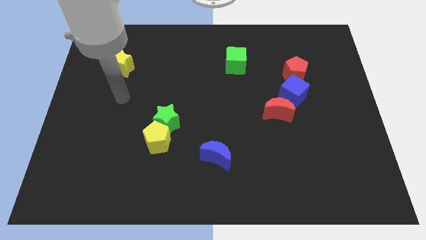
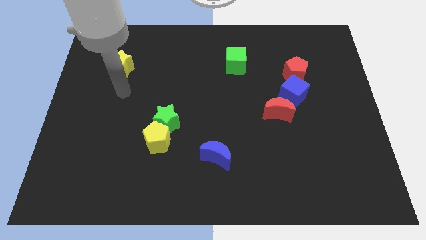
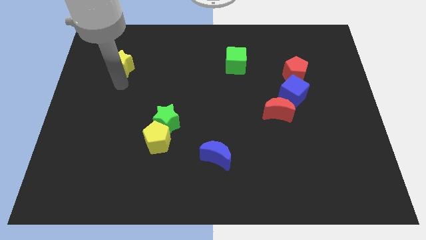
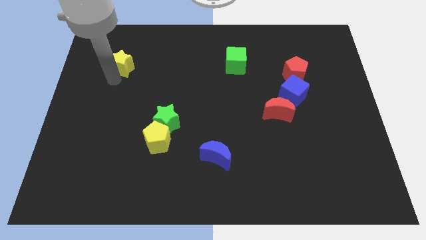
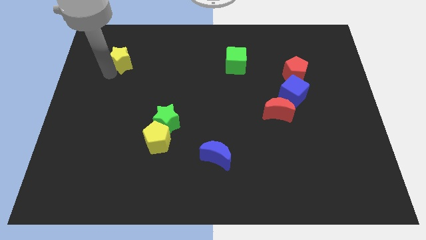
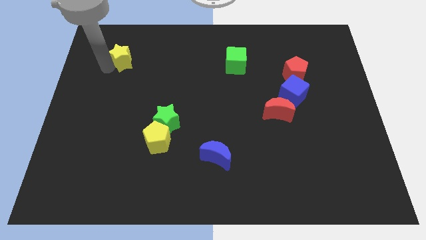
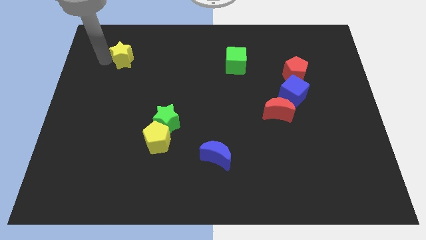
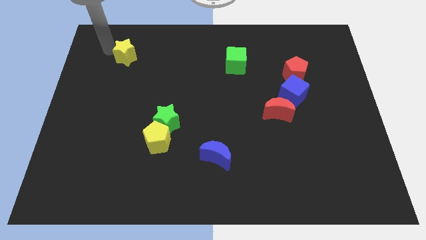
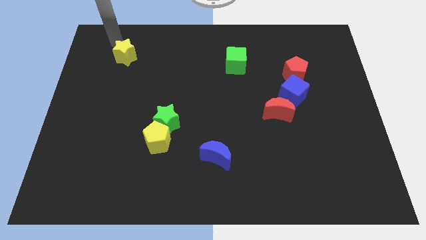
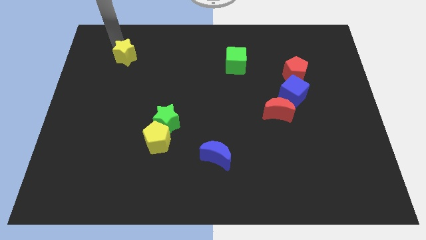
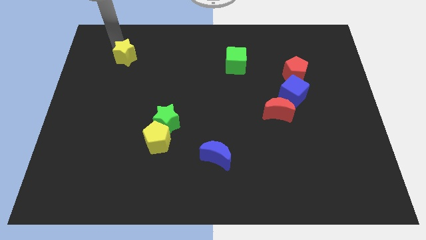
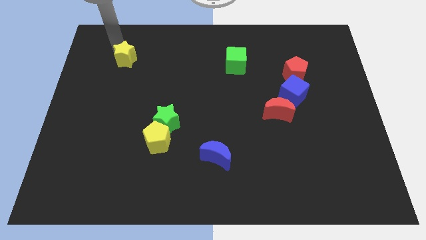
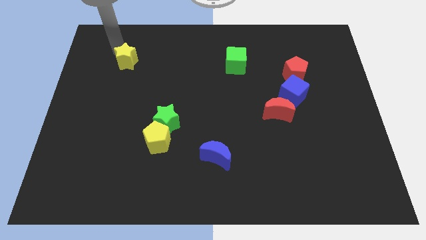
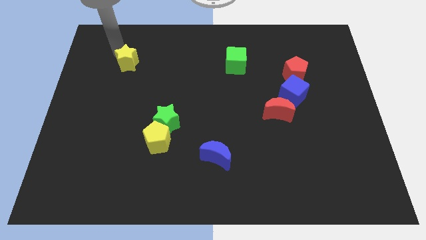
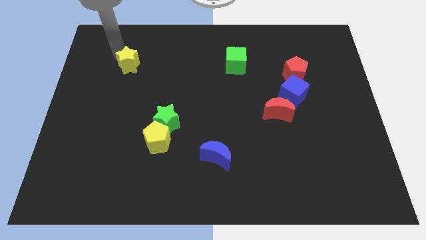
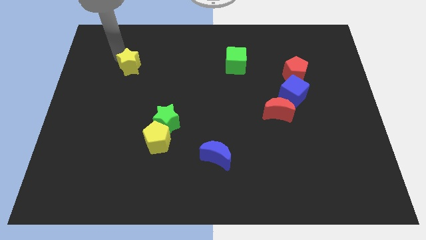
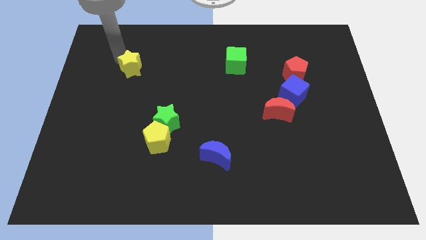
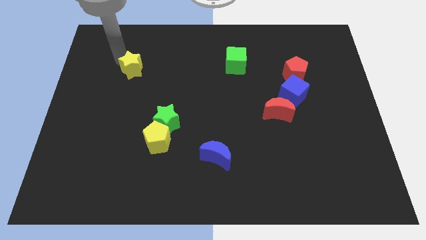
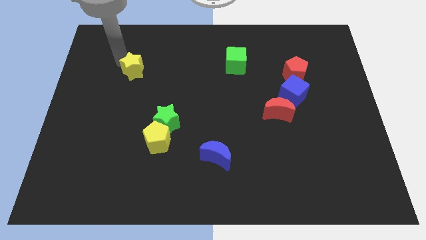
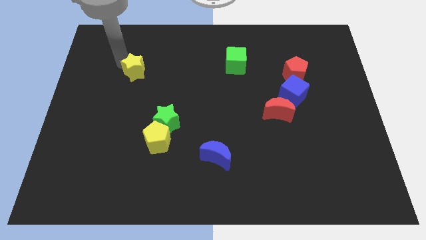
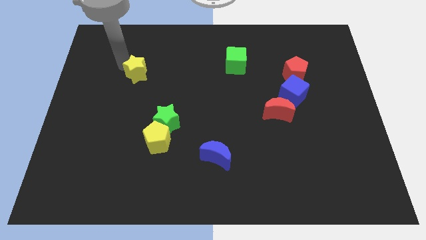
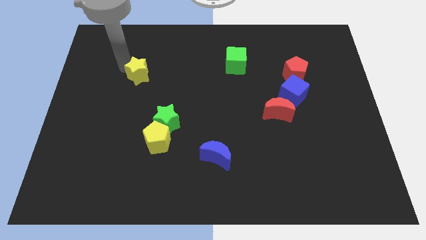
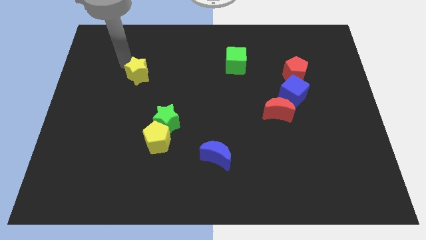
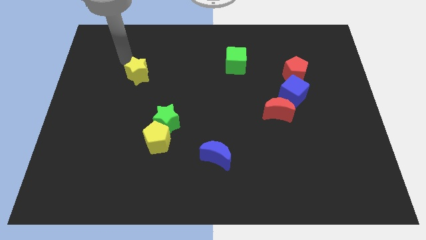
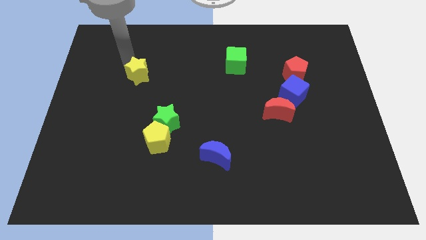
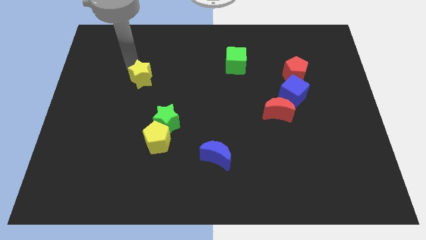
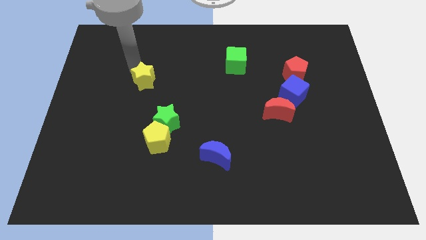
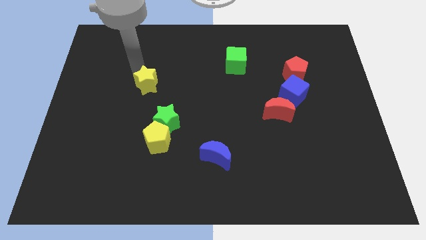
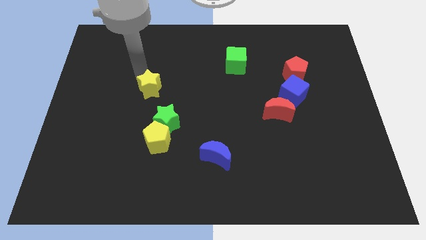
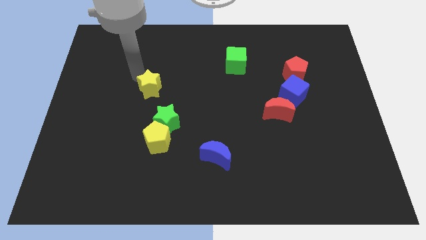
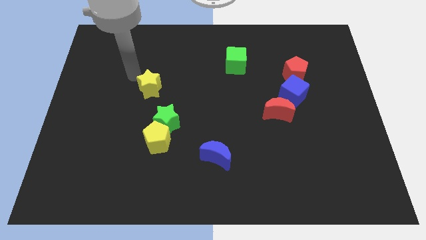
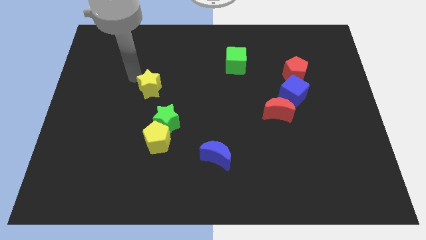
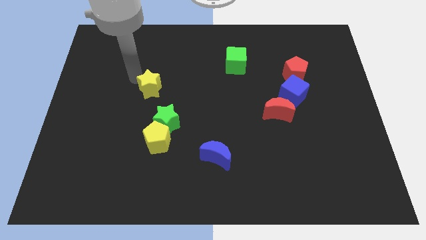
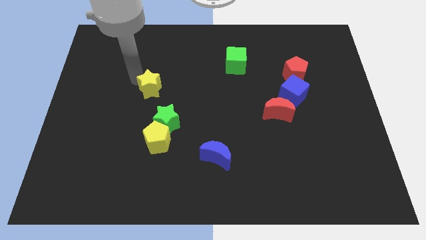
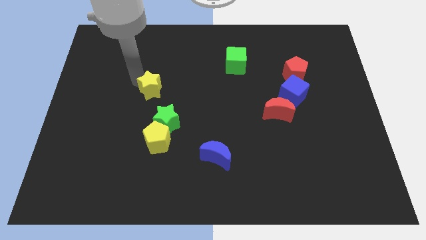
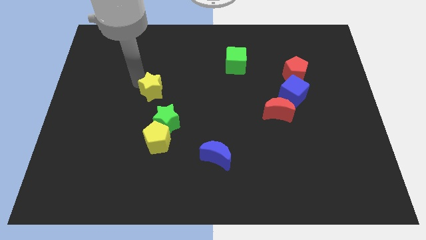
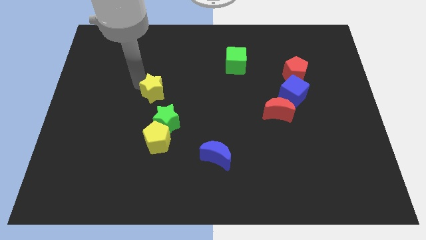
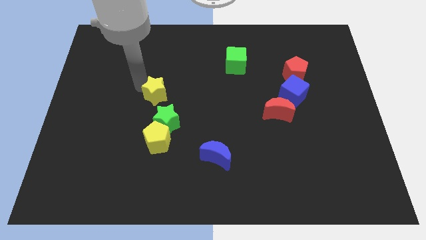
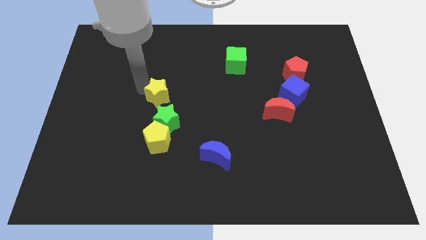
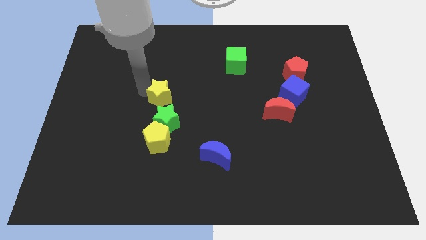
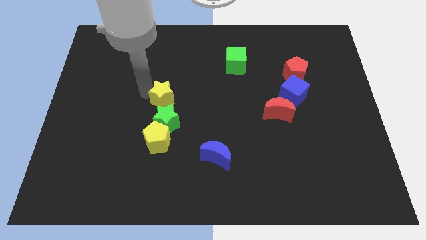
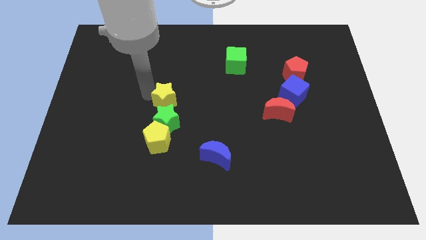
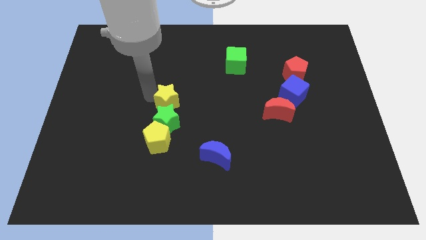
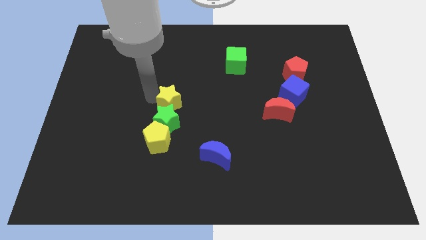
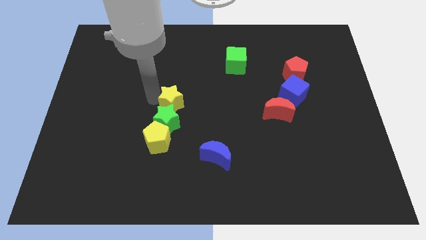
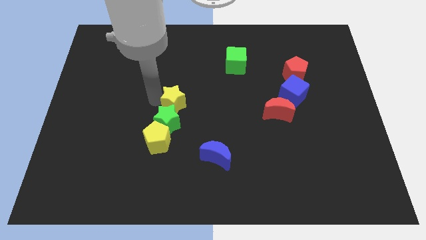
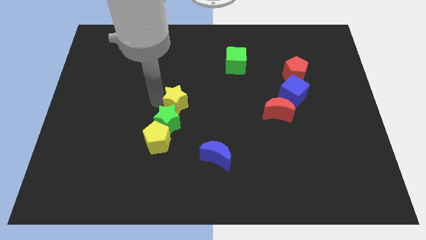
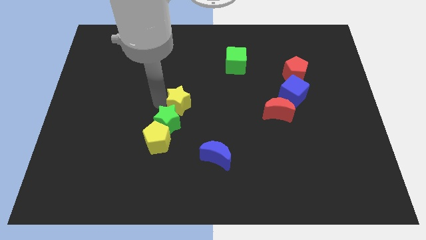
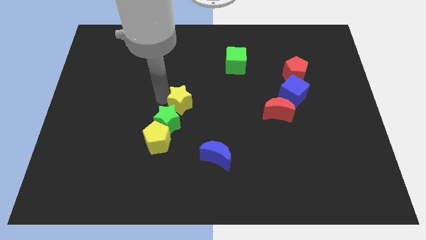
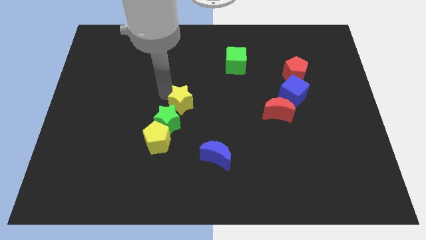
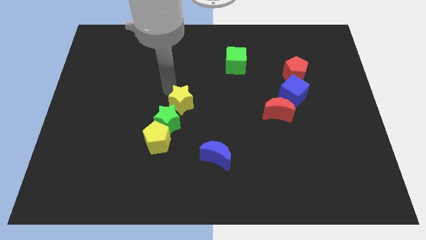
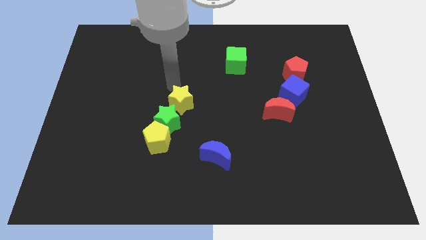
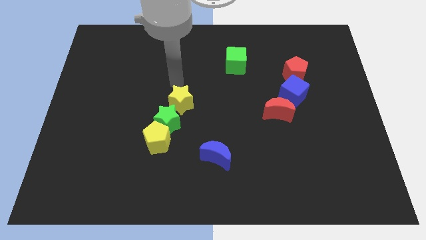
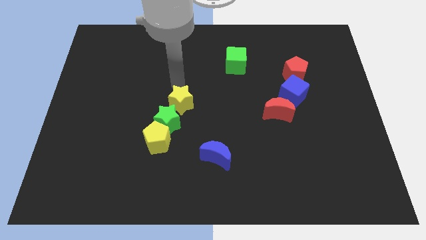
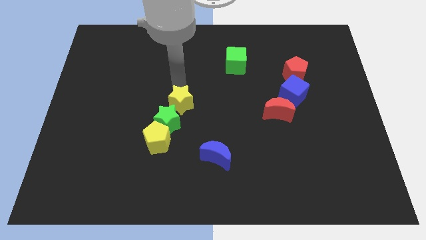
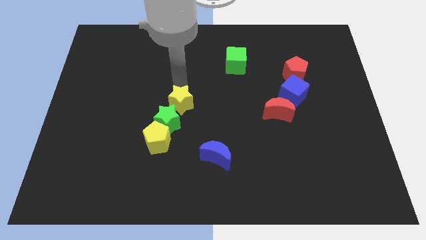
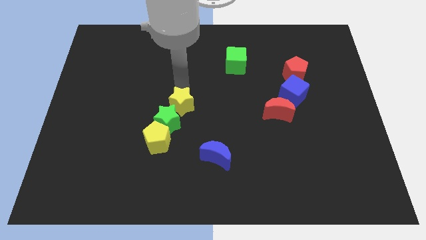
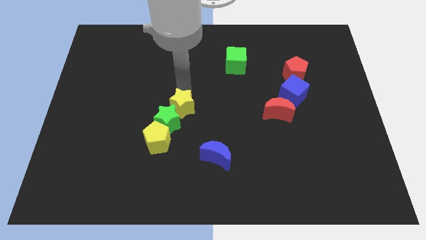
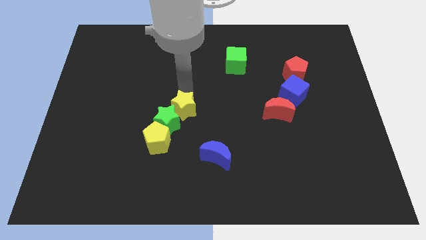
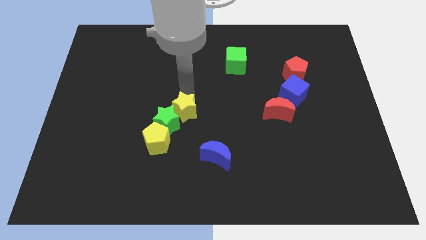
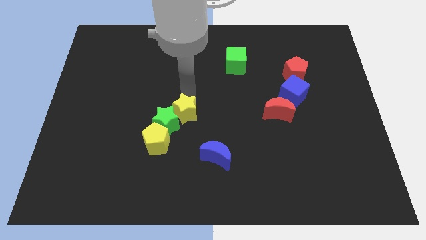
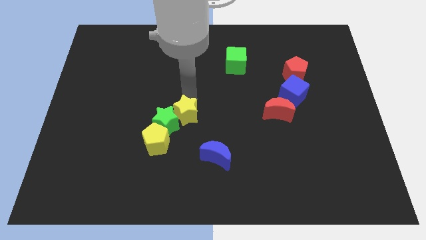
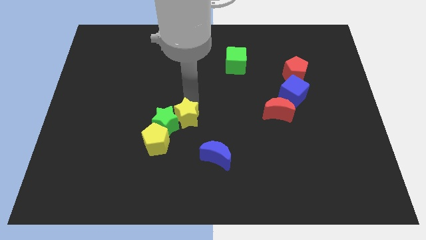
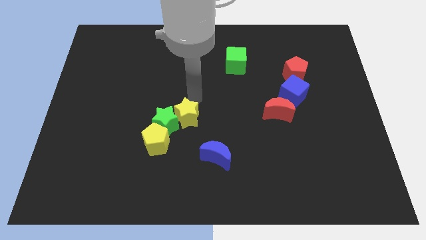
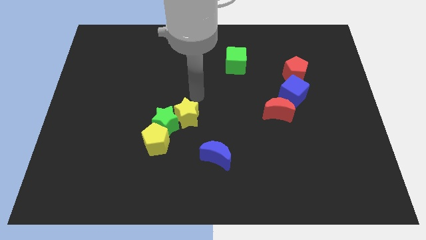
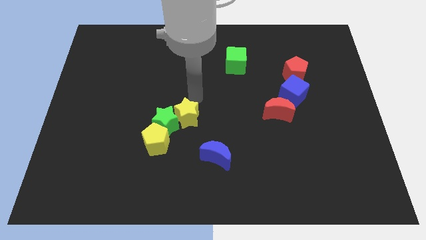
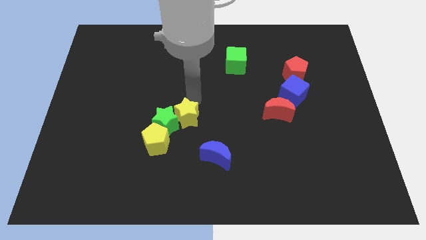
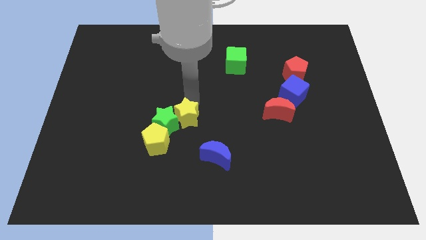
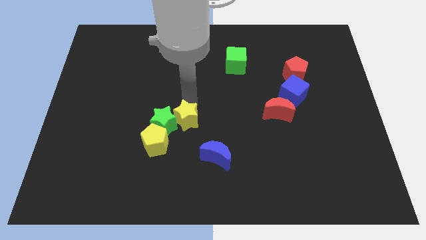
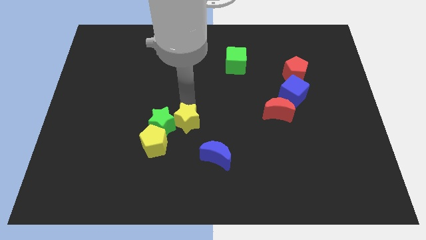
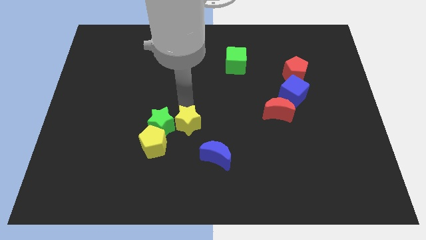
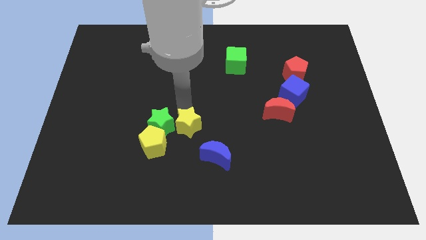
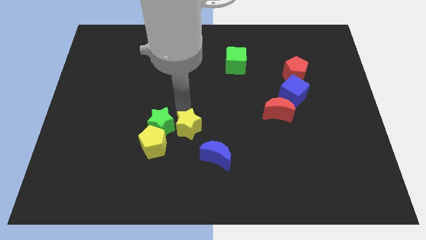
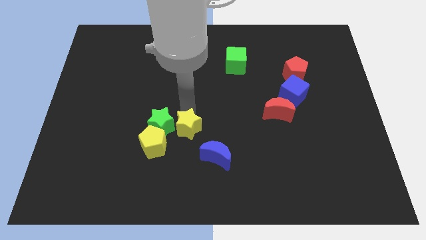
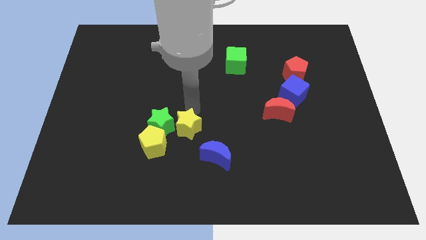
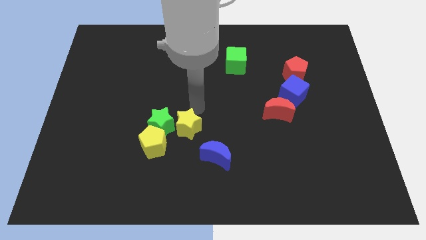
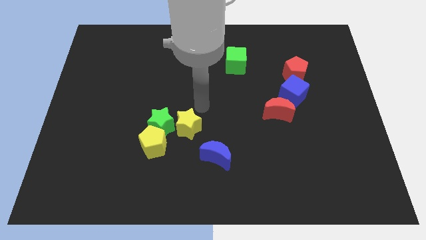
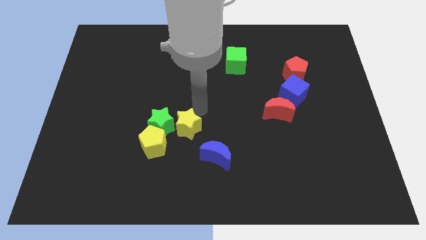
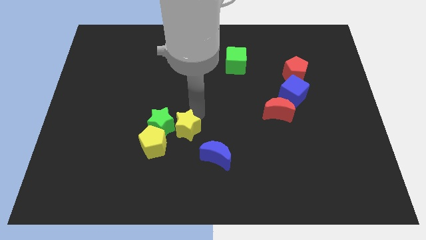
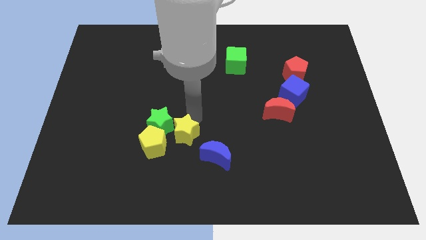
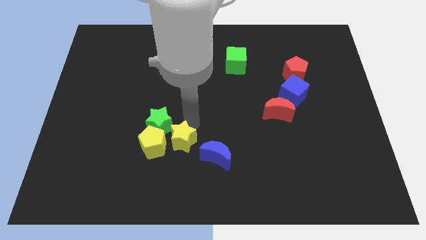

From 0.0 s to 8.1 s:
put the yellow star left of the blue moon

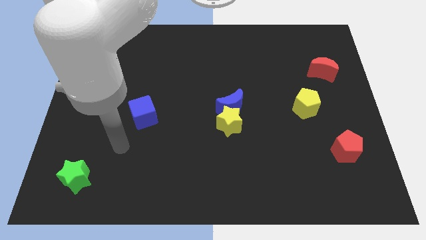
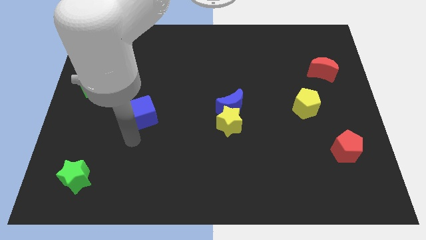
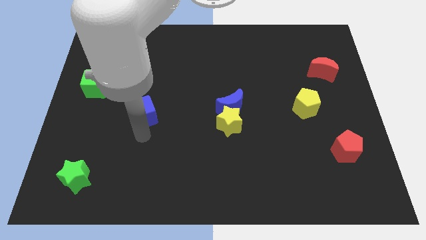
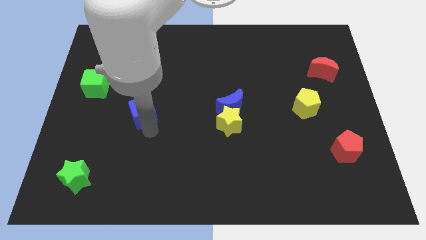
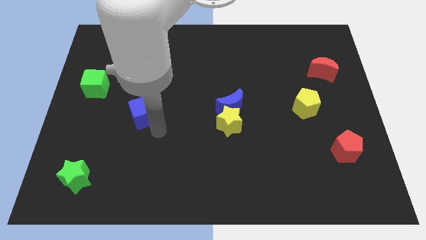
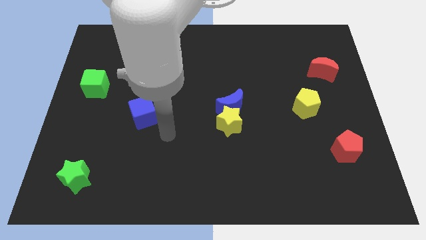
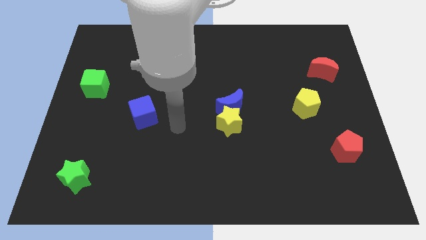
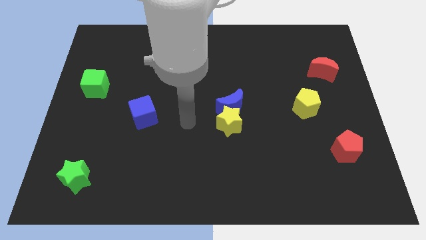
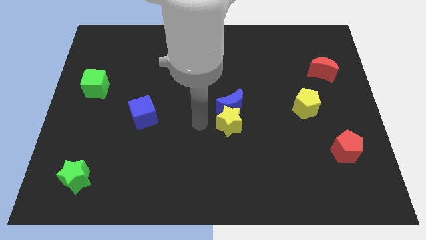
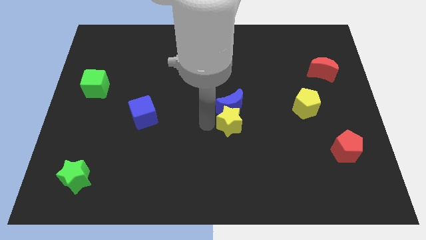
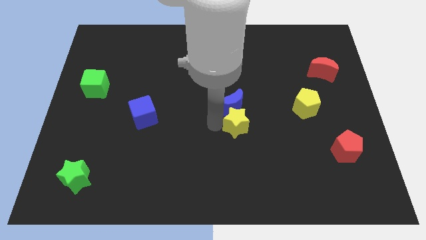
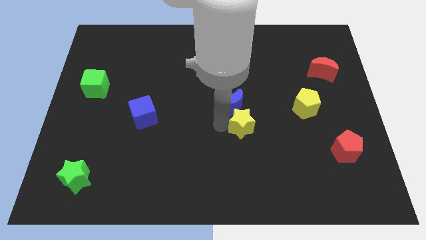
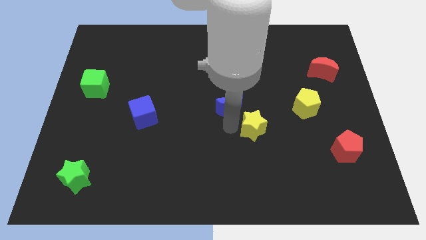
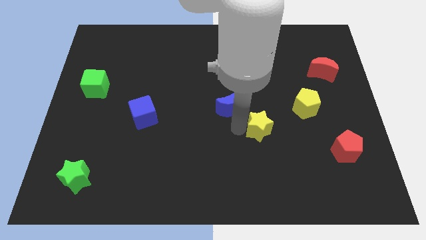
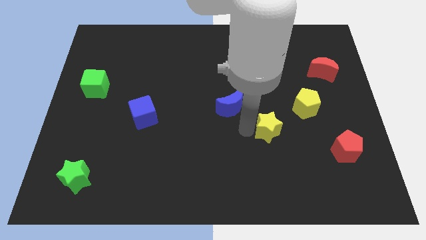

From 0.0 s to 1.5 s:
slide the yellow star diagonally down and to the left of the yellow pentagon
